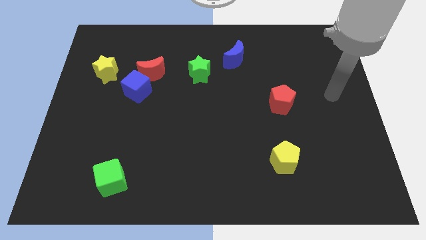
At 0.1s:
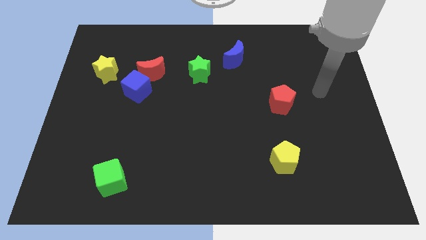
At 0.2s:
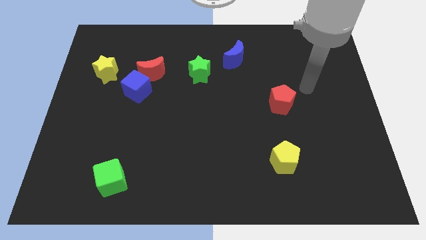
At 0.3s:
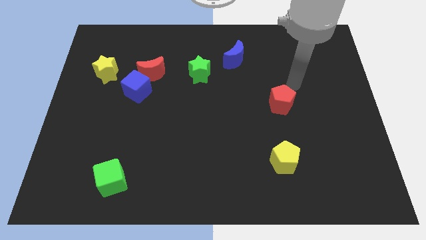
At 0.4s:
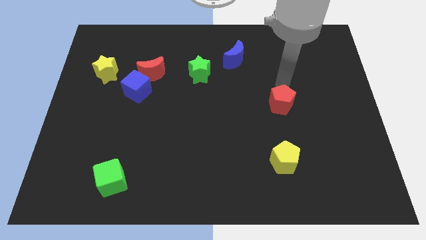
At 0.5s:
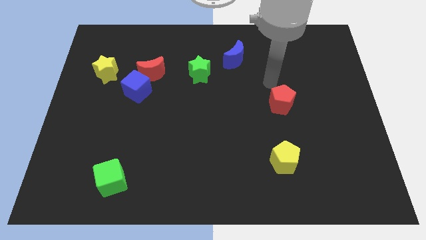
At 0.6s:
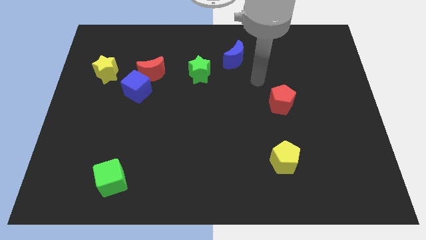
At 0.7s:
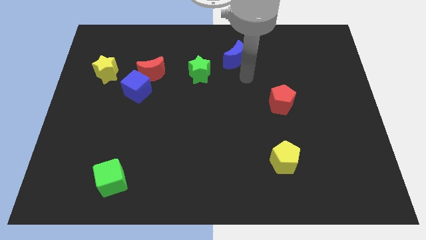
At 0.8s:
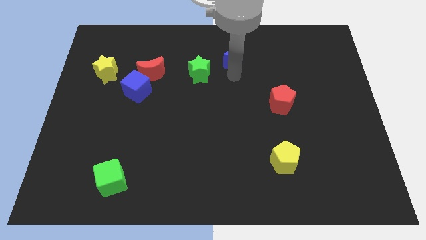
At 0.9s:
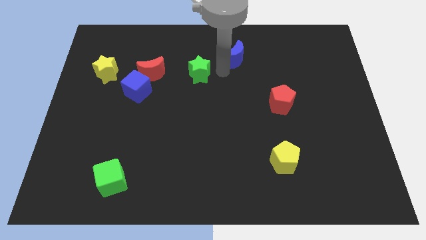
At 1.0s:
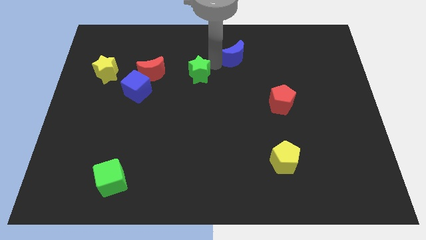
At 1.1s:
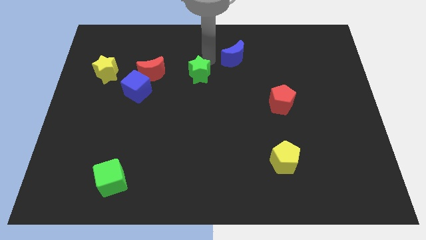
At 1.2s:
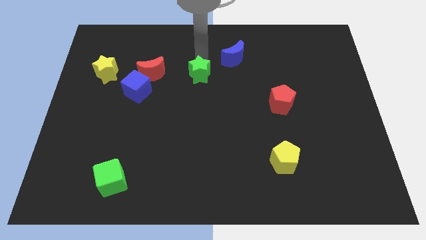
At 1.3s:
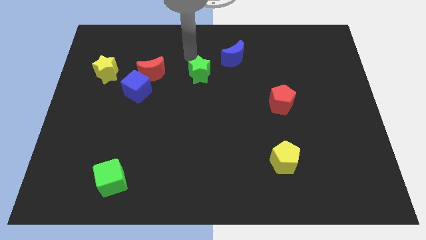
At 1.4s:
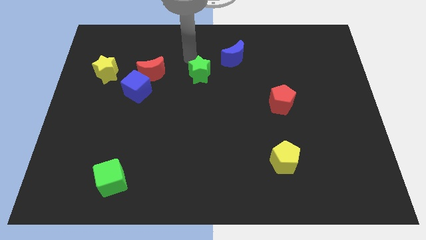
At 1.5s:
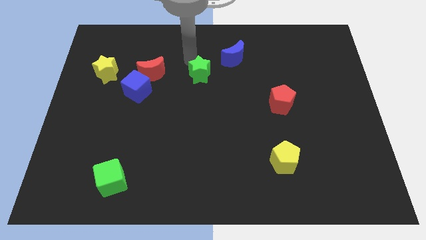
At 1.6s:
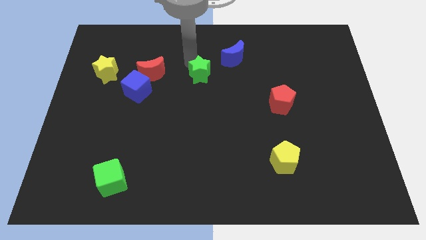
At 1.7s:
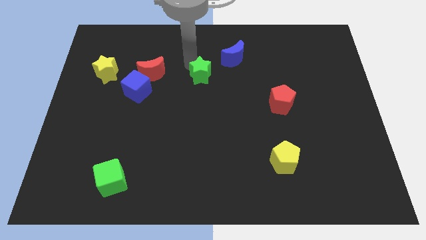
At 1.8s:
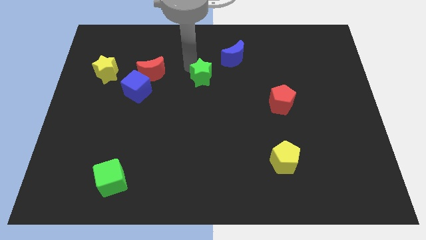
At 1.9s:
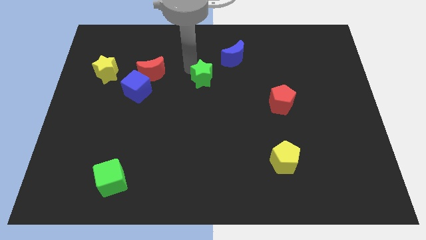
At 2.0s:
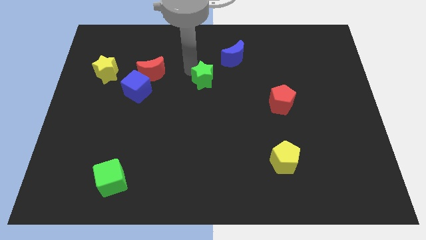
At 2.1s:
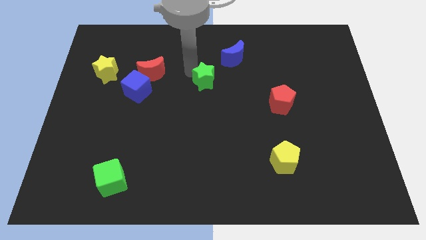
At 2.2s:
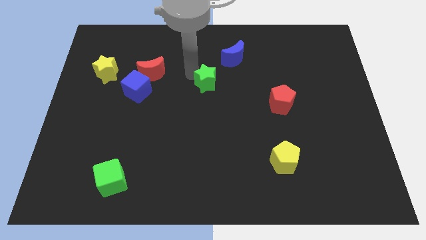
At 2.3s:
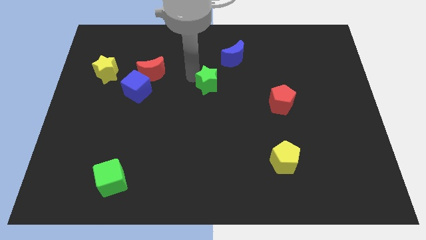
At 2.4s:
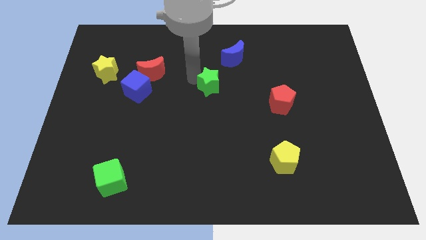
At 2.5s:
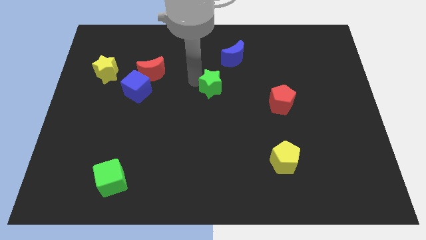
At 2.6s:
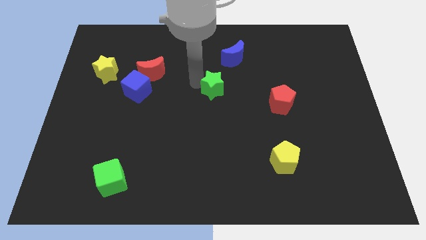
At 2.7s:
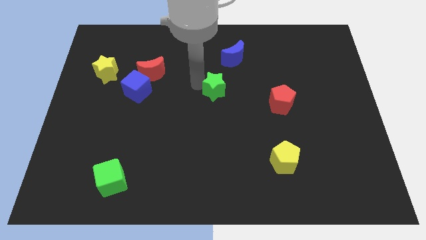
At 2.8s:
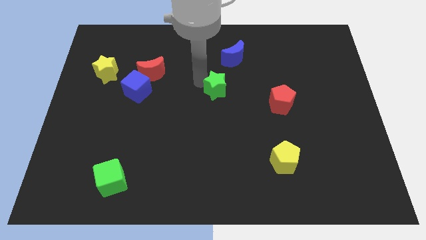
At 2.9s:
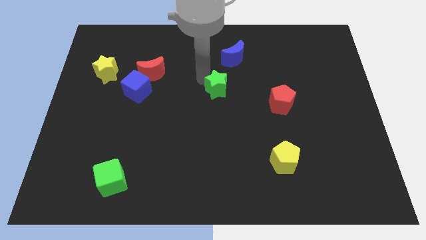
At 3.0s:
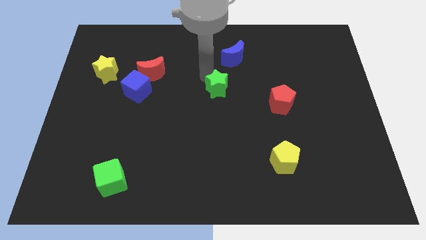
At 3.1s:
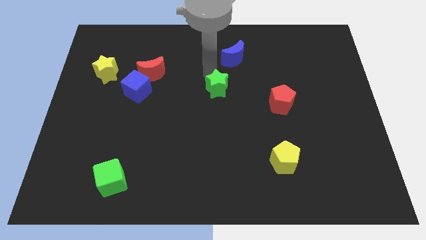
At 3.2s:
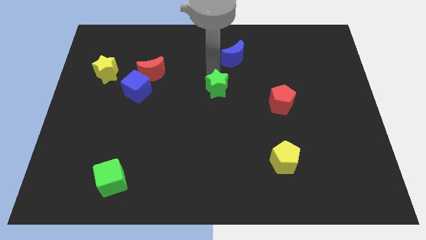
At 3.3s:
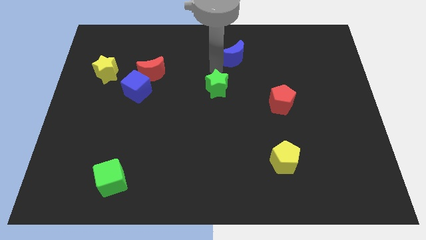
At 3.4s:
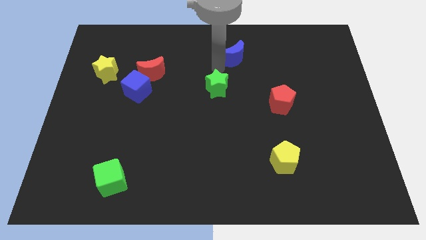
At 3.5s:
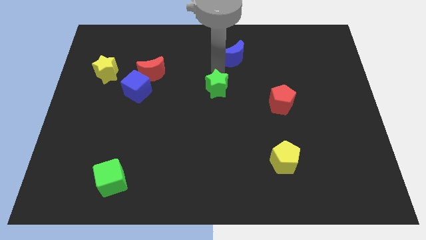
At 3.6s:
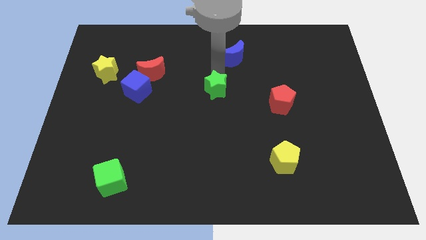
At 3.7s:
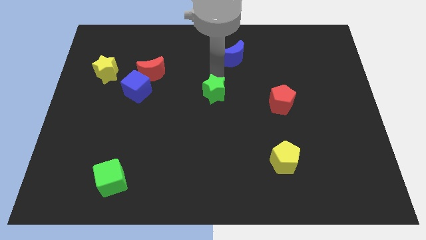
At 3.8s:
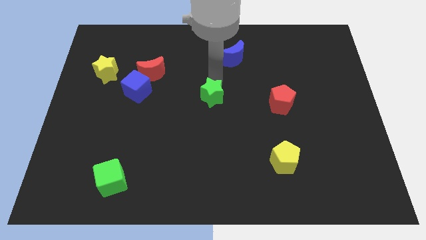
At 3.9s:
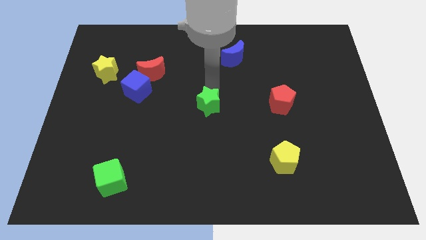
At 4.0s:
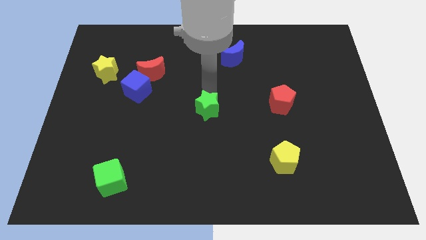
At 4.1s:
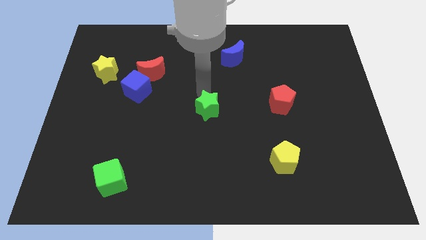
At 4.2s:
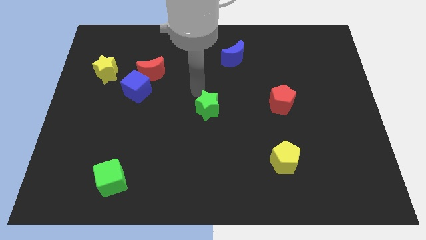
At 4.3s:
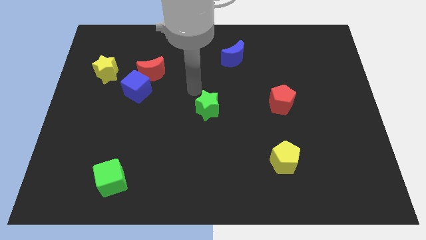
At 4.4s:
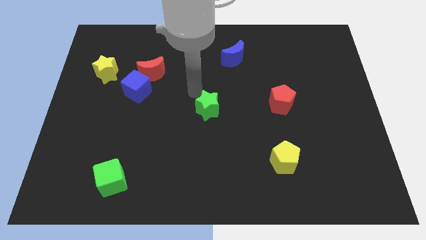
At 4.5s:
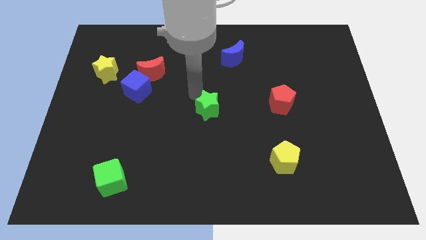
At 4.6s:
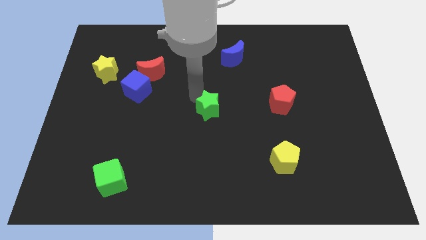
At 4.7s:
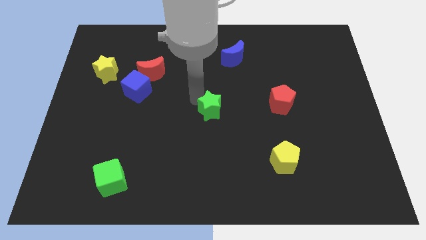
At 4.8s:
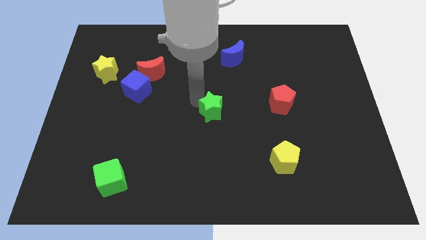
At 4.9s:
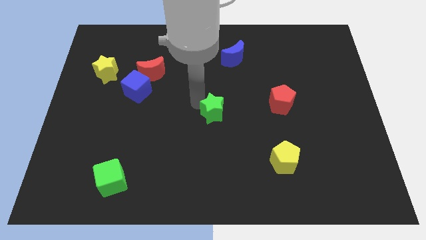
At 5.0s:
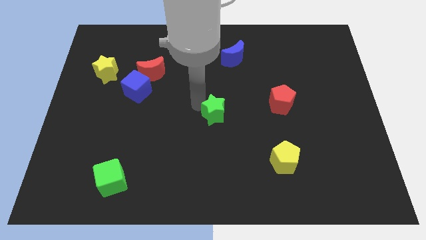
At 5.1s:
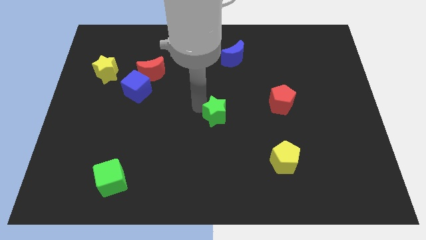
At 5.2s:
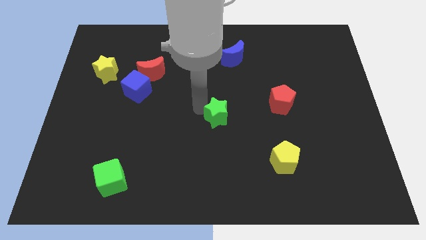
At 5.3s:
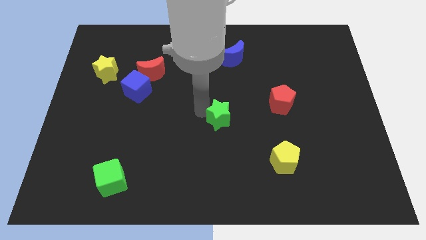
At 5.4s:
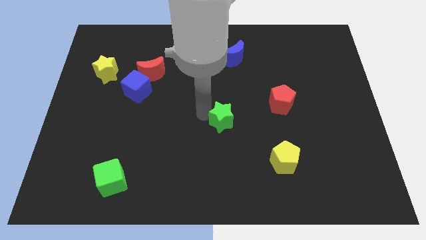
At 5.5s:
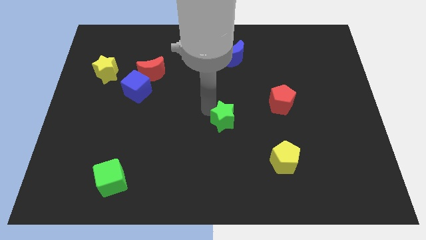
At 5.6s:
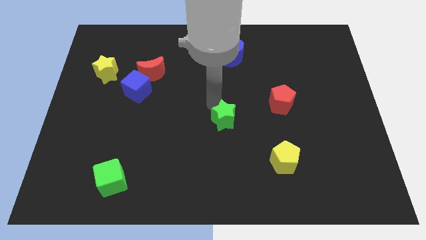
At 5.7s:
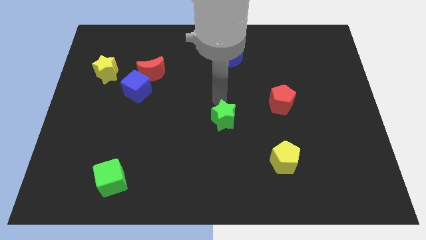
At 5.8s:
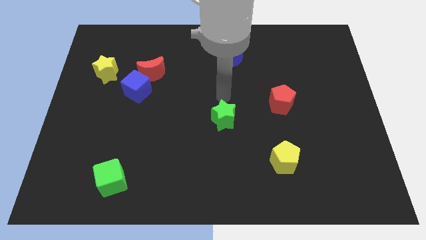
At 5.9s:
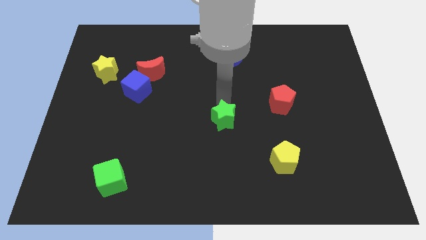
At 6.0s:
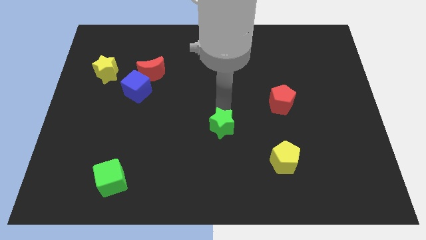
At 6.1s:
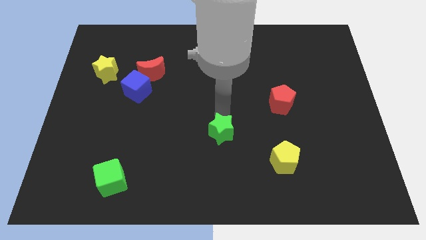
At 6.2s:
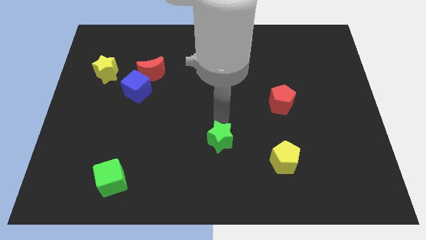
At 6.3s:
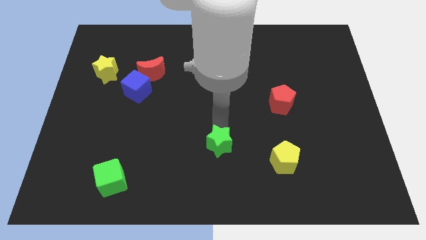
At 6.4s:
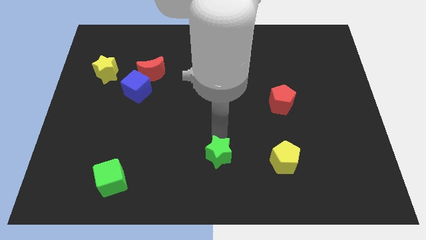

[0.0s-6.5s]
put the green star to the bottom side

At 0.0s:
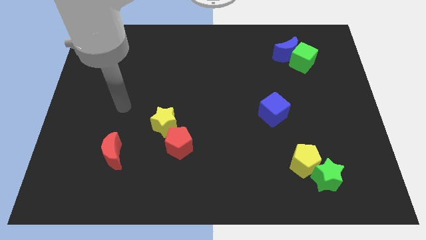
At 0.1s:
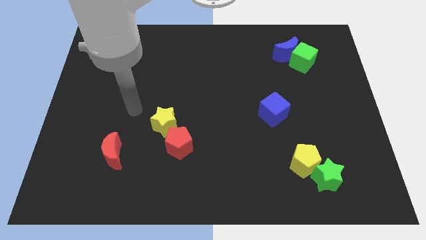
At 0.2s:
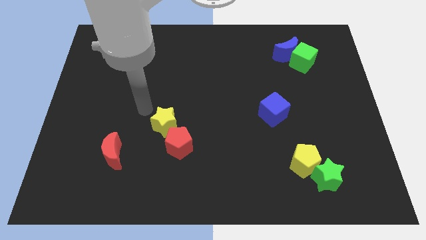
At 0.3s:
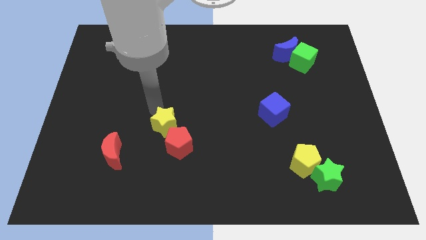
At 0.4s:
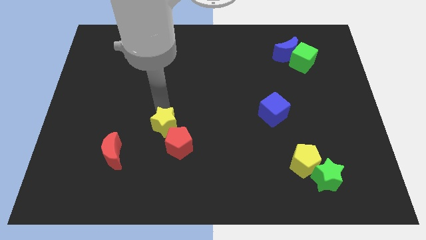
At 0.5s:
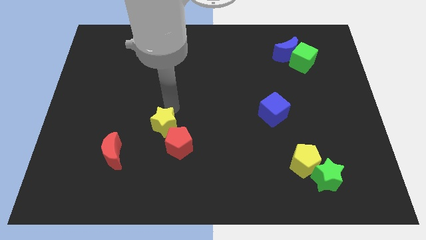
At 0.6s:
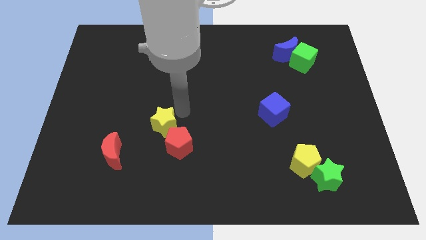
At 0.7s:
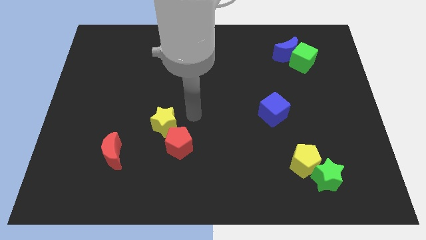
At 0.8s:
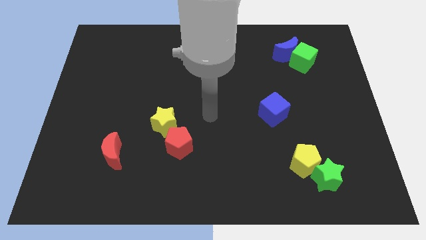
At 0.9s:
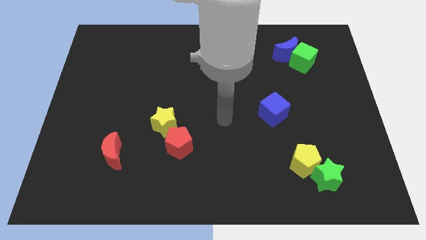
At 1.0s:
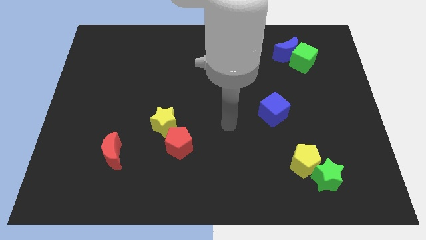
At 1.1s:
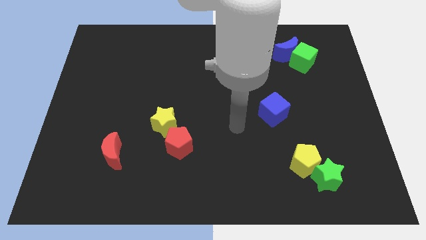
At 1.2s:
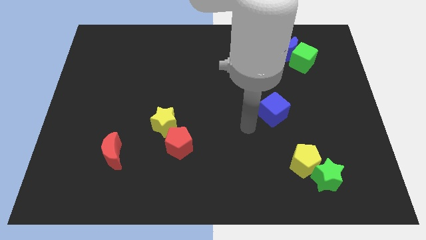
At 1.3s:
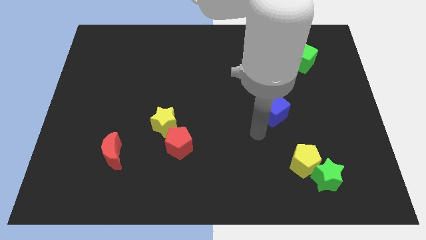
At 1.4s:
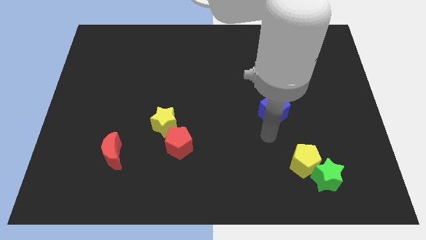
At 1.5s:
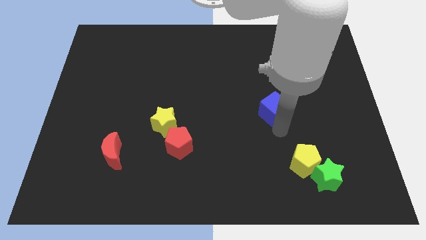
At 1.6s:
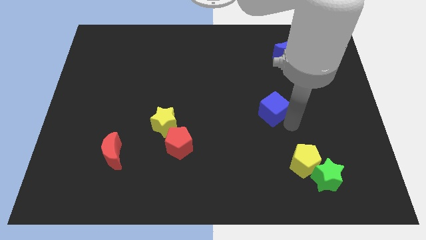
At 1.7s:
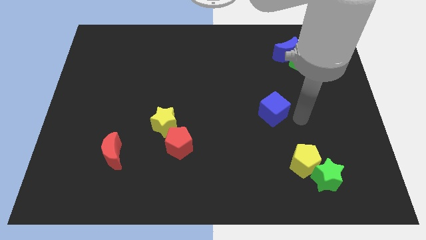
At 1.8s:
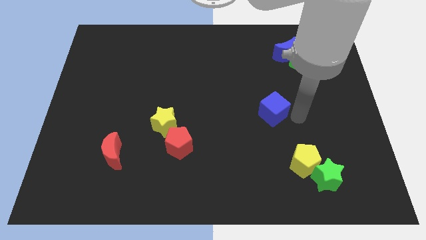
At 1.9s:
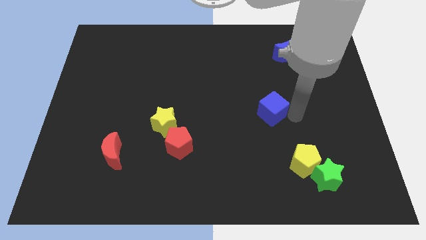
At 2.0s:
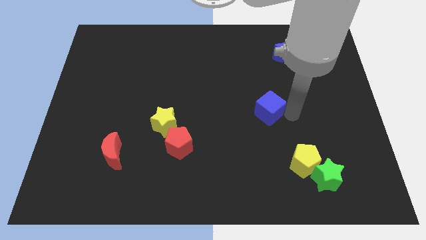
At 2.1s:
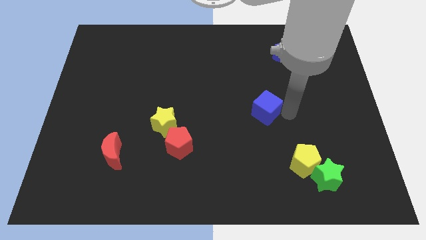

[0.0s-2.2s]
slide the blue cube to the center of the board
